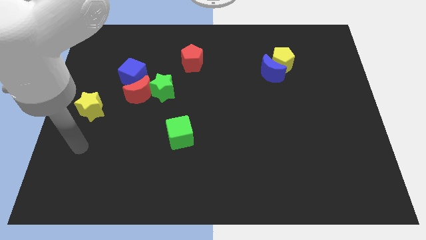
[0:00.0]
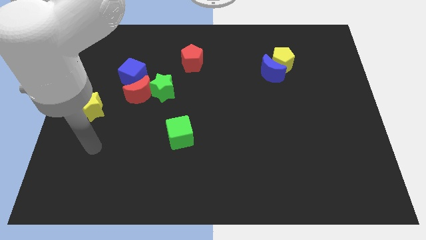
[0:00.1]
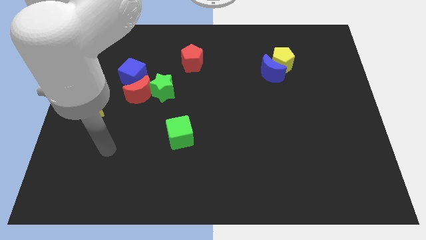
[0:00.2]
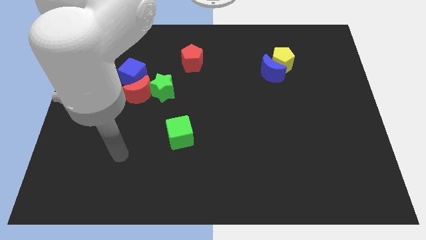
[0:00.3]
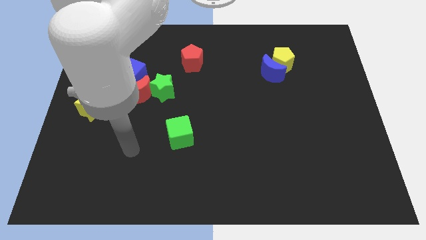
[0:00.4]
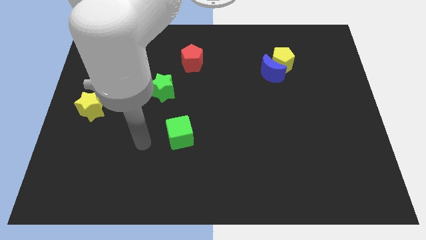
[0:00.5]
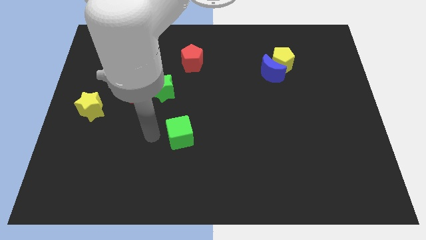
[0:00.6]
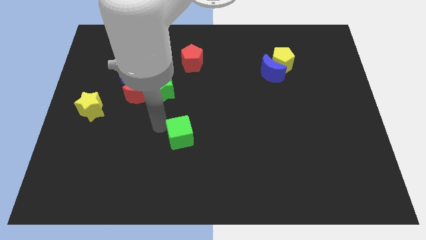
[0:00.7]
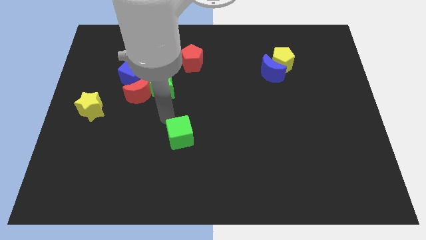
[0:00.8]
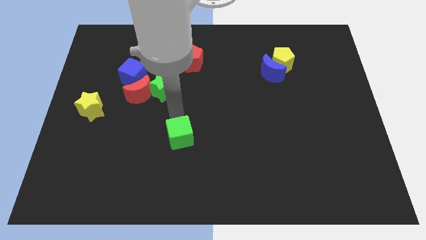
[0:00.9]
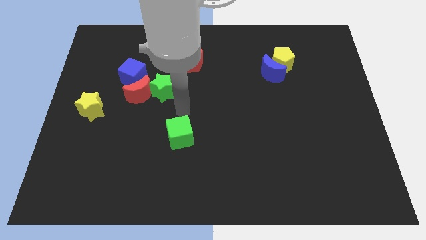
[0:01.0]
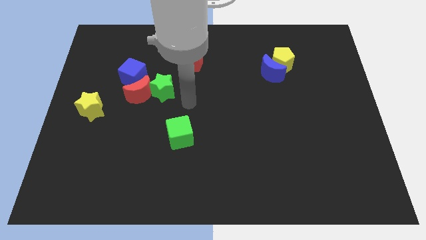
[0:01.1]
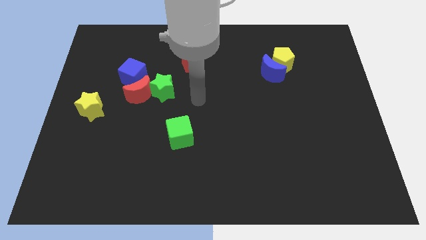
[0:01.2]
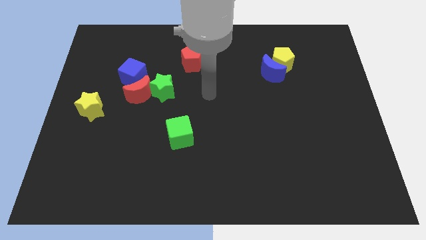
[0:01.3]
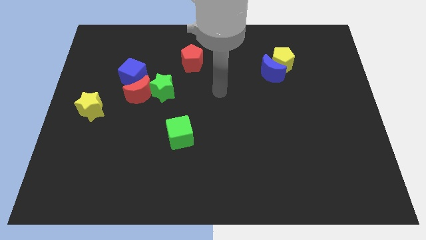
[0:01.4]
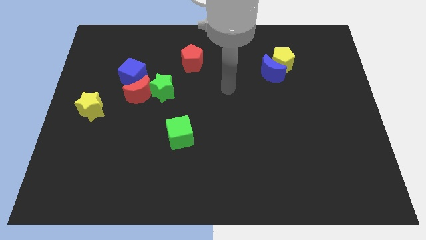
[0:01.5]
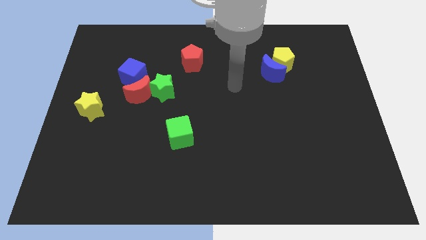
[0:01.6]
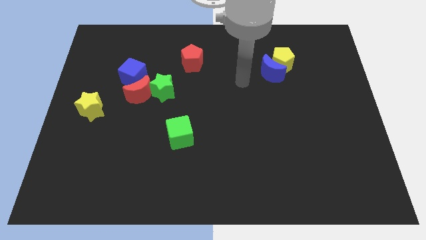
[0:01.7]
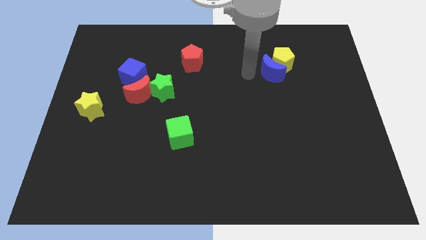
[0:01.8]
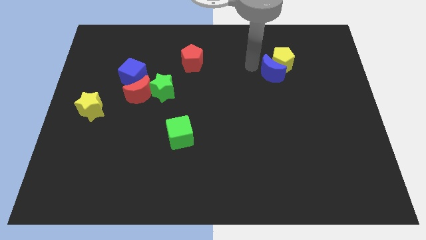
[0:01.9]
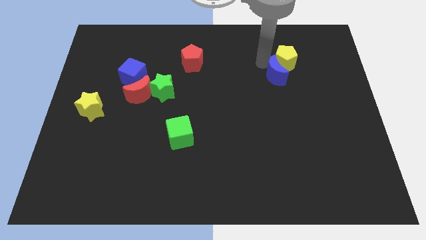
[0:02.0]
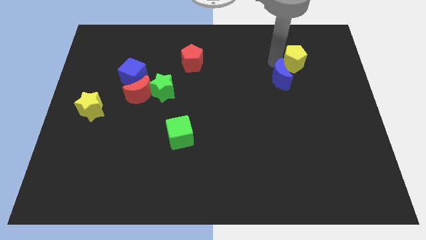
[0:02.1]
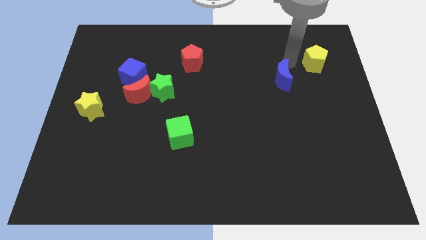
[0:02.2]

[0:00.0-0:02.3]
move the blue moon away from the yellow pentagon

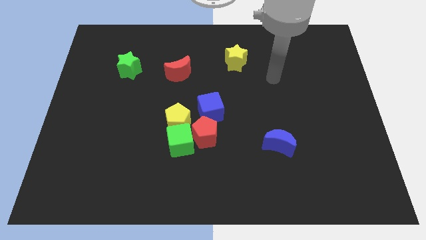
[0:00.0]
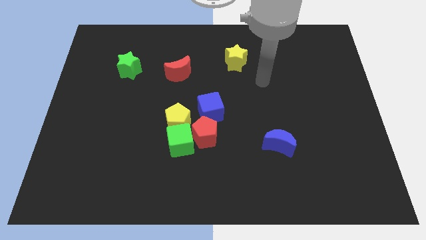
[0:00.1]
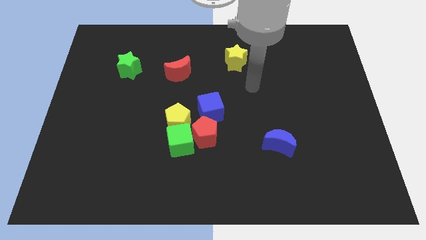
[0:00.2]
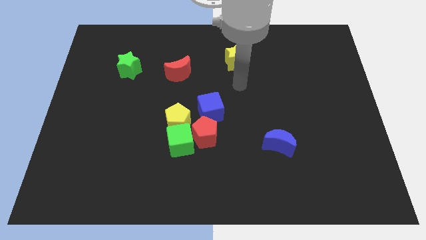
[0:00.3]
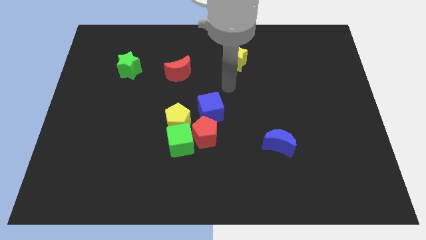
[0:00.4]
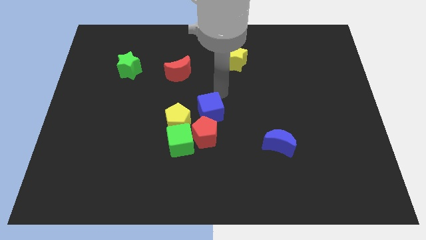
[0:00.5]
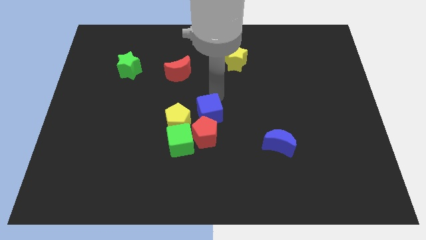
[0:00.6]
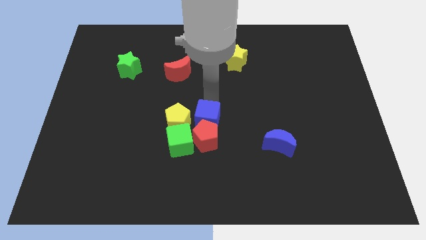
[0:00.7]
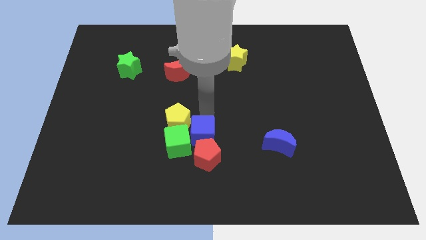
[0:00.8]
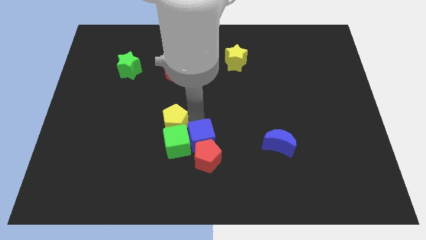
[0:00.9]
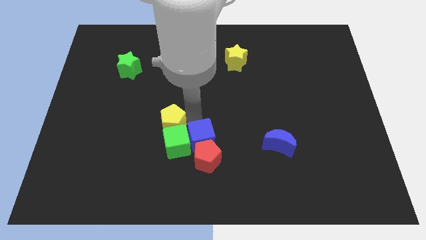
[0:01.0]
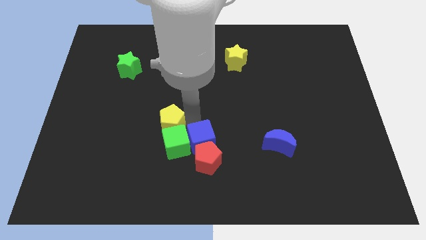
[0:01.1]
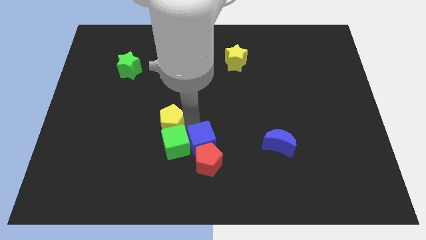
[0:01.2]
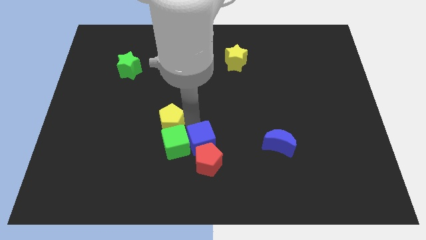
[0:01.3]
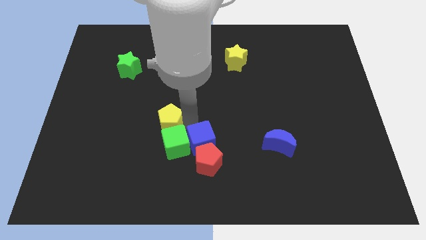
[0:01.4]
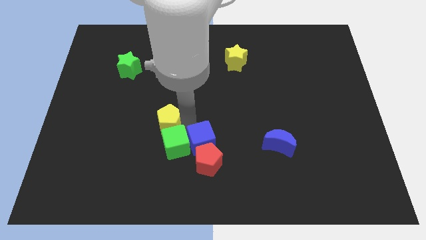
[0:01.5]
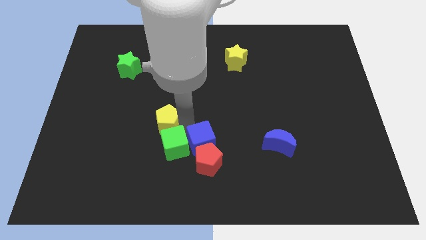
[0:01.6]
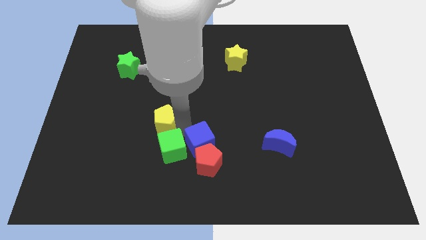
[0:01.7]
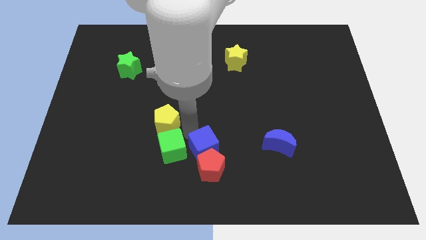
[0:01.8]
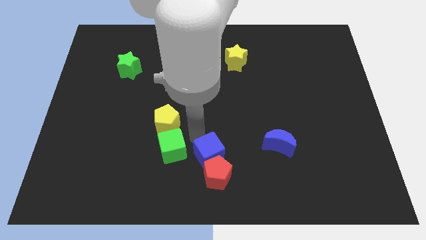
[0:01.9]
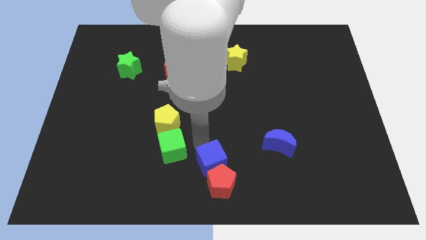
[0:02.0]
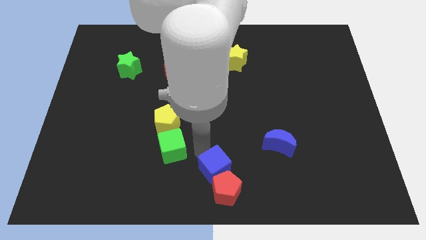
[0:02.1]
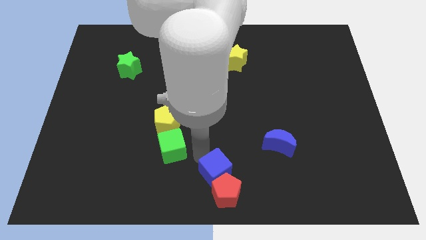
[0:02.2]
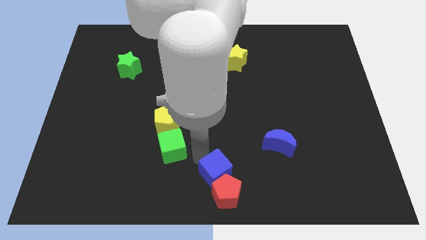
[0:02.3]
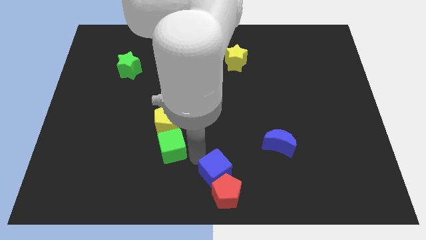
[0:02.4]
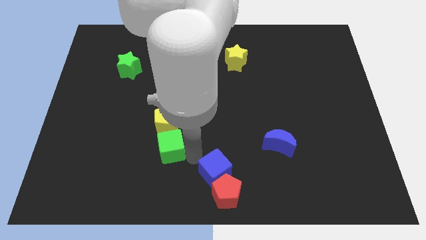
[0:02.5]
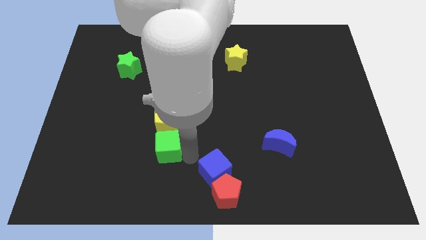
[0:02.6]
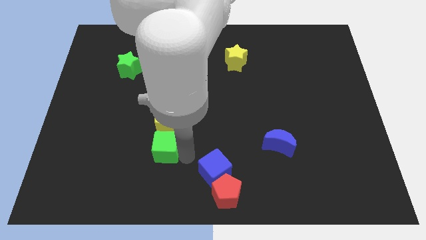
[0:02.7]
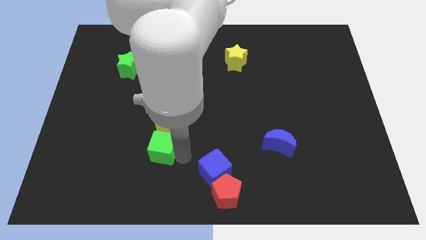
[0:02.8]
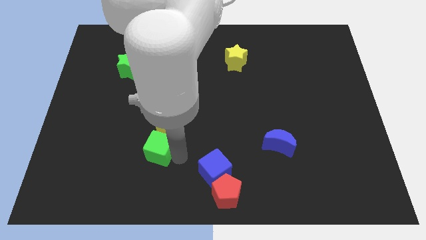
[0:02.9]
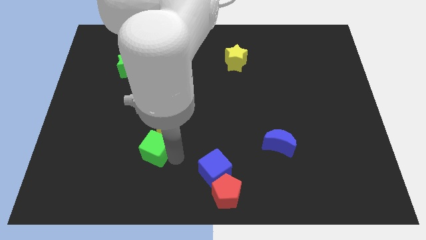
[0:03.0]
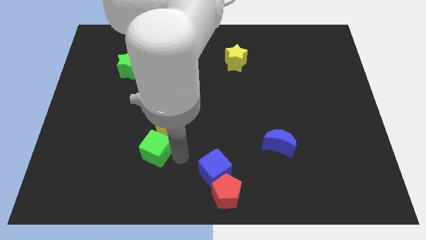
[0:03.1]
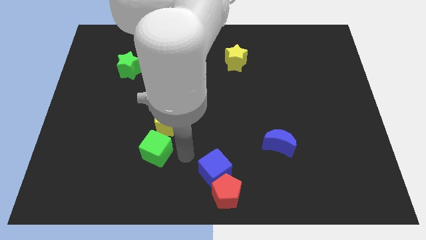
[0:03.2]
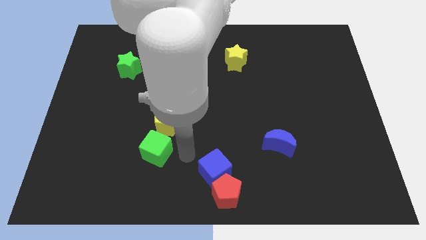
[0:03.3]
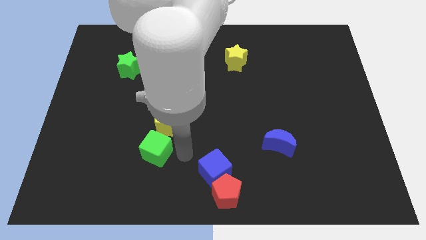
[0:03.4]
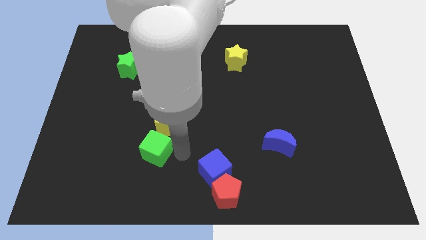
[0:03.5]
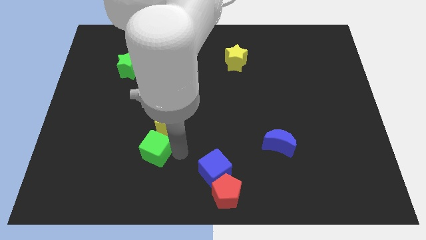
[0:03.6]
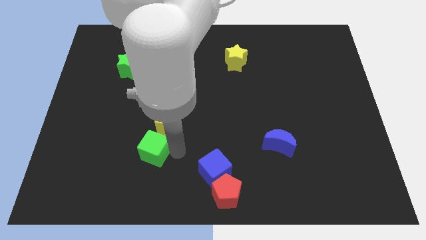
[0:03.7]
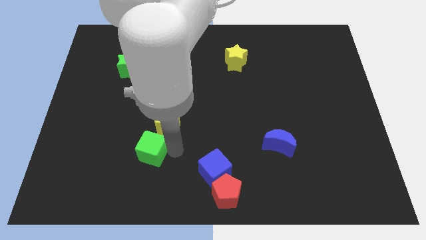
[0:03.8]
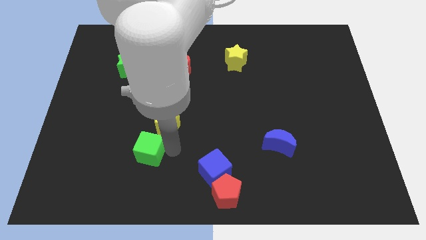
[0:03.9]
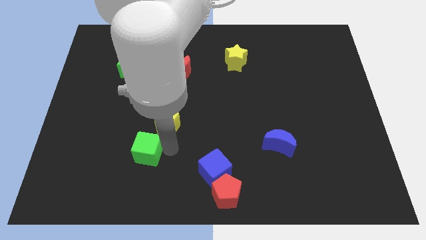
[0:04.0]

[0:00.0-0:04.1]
pull the green cube apart from the yellow pentagon and red pentagon

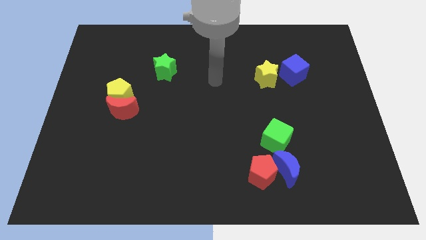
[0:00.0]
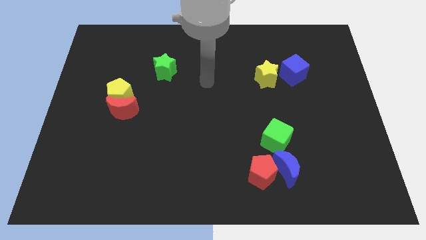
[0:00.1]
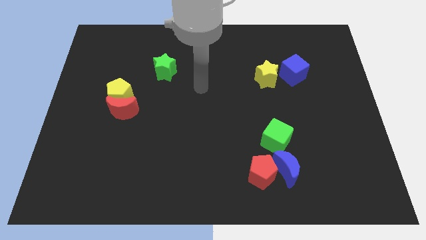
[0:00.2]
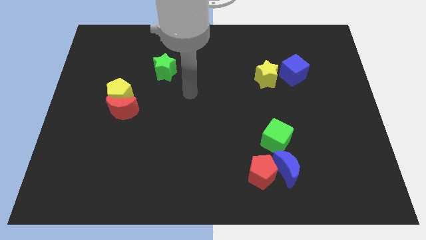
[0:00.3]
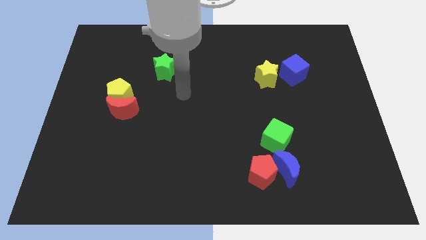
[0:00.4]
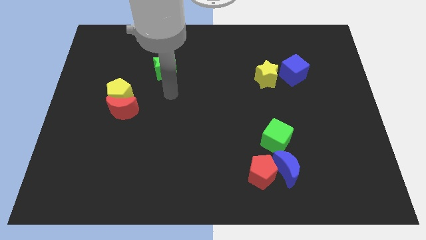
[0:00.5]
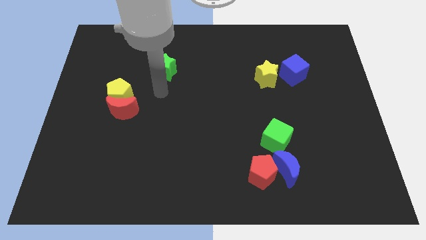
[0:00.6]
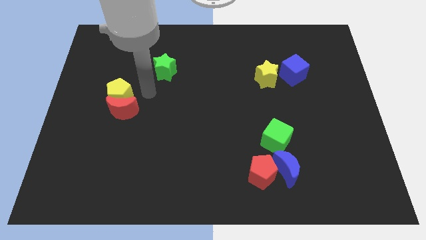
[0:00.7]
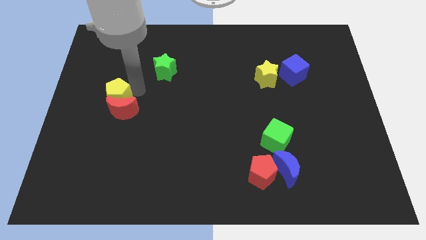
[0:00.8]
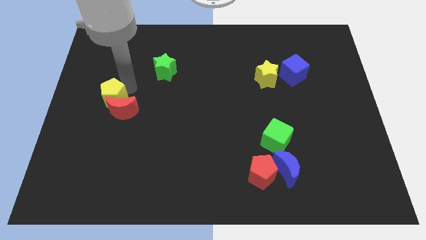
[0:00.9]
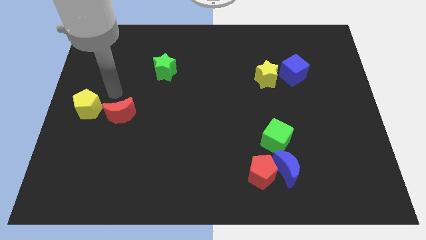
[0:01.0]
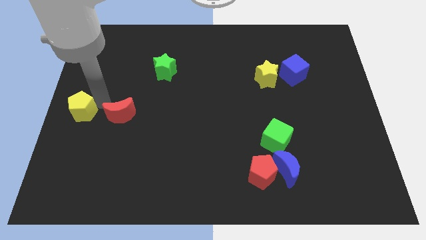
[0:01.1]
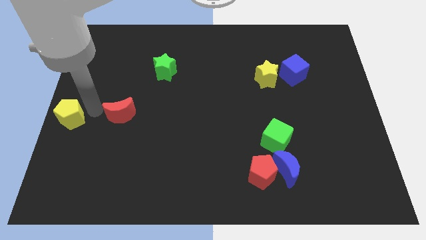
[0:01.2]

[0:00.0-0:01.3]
pull the red moon apart from the yellow pentagon

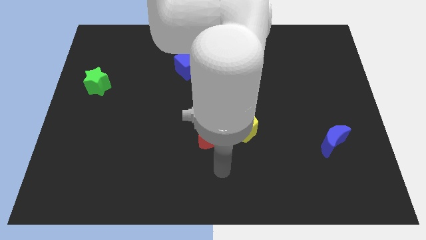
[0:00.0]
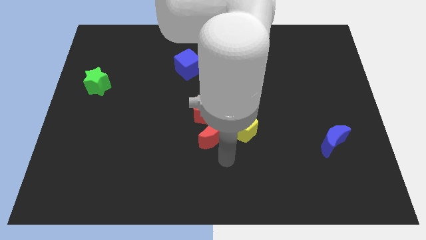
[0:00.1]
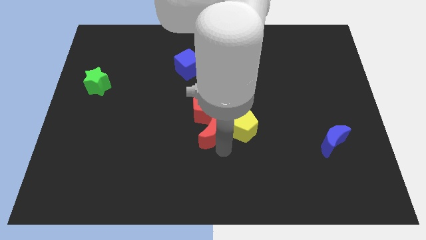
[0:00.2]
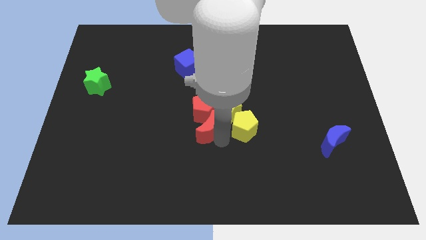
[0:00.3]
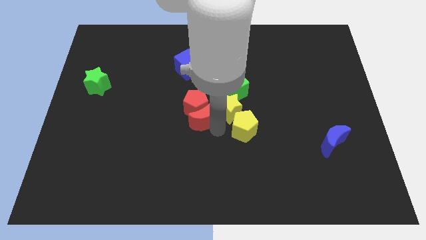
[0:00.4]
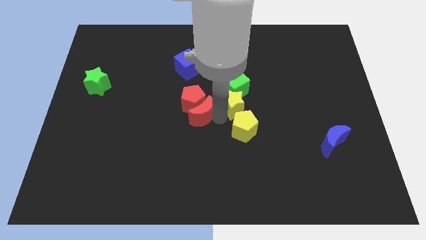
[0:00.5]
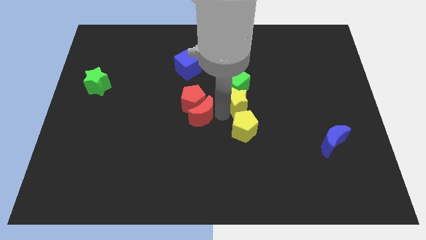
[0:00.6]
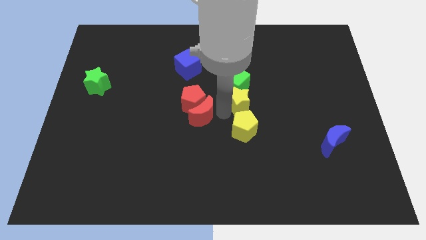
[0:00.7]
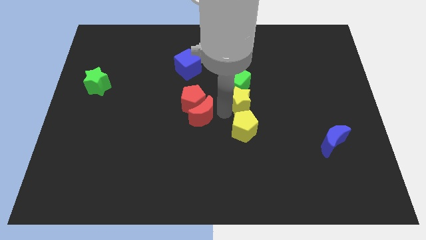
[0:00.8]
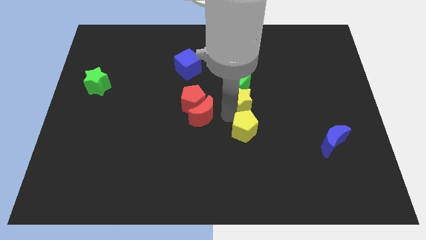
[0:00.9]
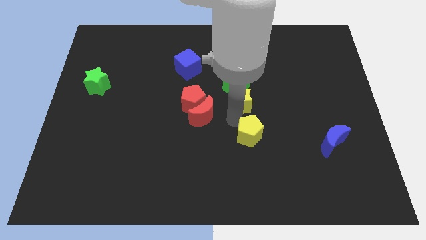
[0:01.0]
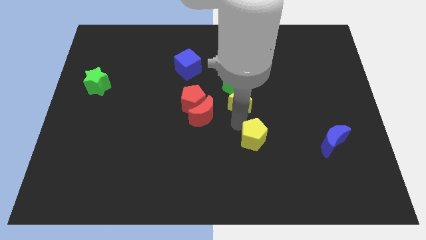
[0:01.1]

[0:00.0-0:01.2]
pull the yellow pentagon apart from the yellow star and red moon

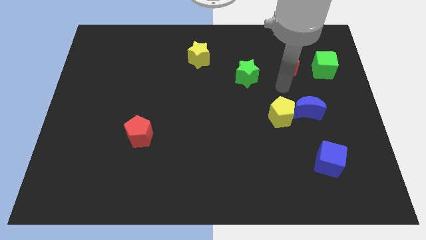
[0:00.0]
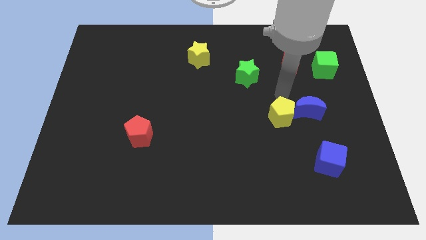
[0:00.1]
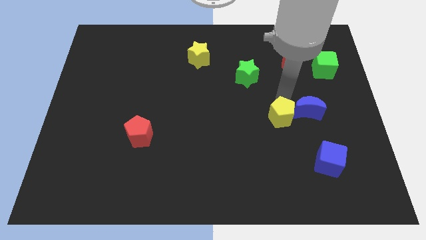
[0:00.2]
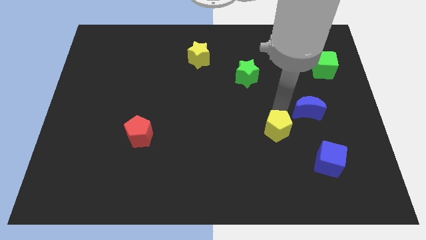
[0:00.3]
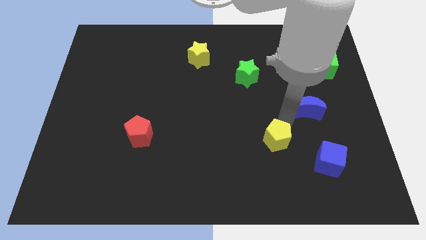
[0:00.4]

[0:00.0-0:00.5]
separate the blue moon from the yellow pentagon
